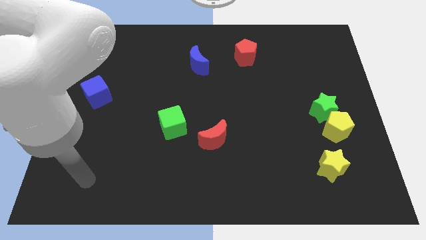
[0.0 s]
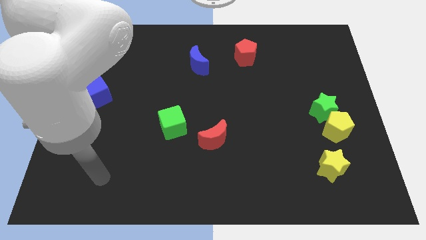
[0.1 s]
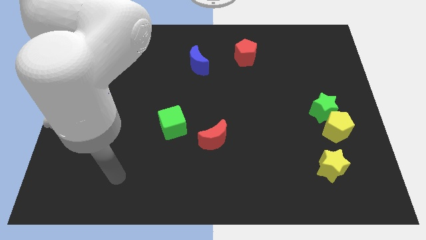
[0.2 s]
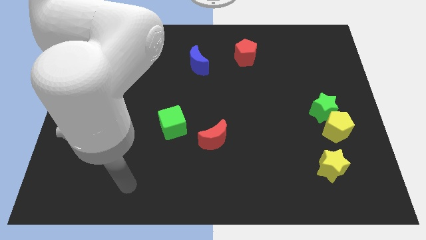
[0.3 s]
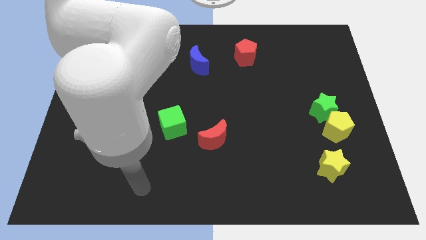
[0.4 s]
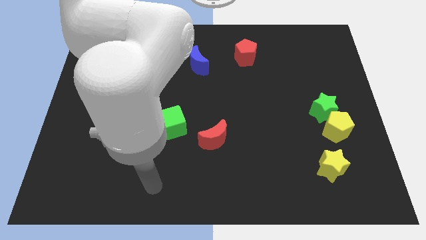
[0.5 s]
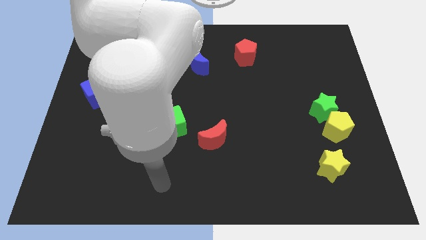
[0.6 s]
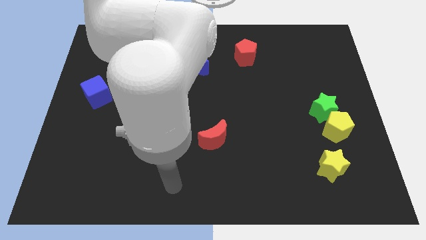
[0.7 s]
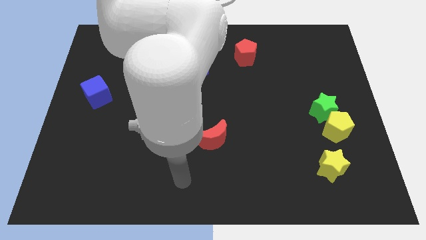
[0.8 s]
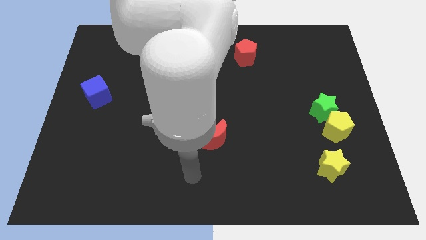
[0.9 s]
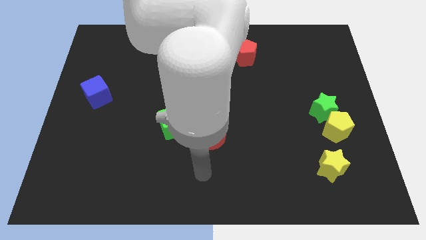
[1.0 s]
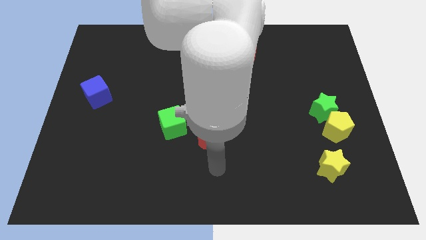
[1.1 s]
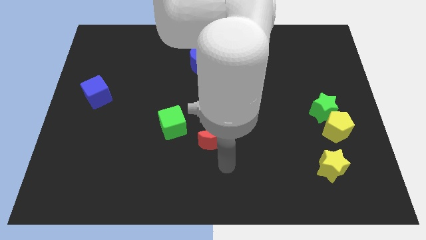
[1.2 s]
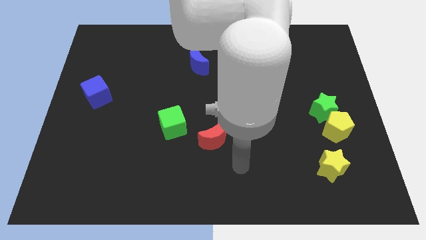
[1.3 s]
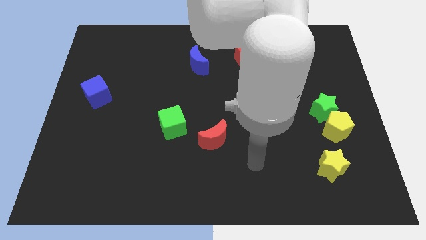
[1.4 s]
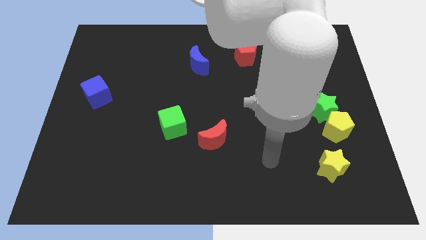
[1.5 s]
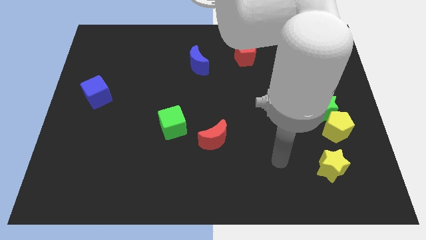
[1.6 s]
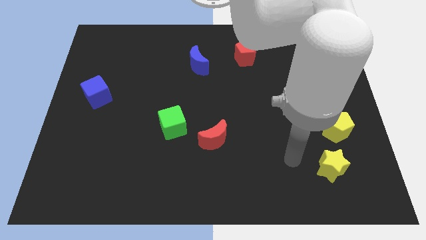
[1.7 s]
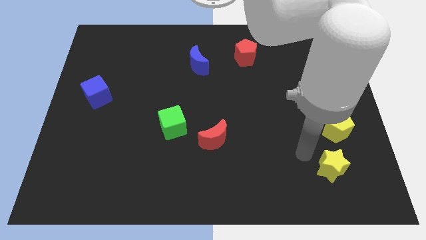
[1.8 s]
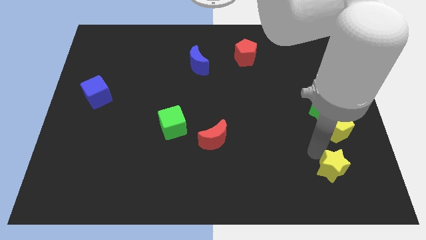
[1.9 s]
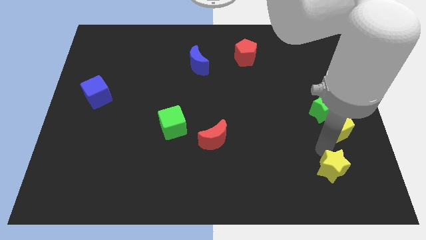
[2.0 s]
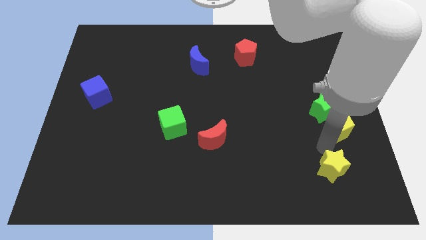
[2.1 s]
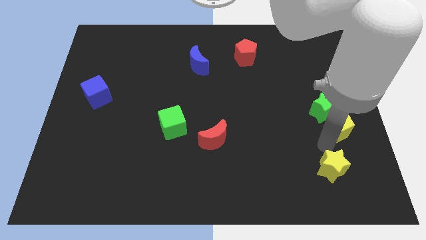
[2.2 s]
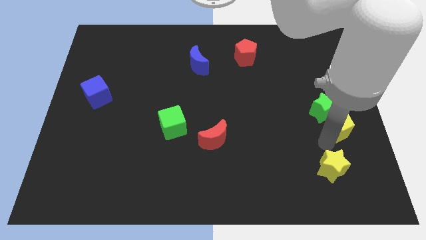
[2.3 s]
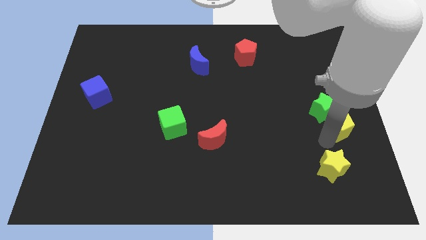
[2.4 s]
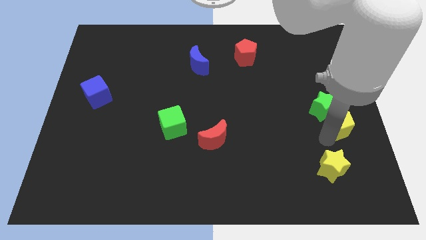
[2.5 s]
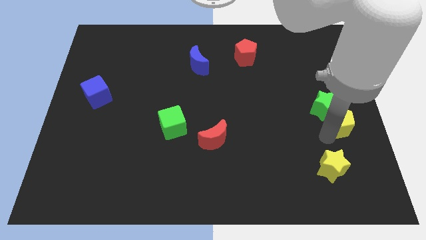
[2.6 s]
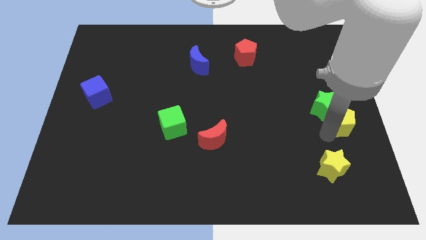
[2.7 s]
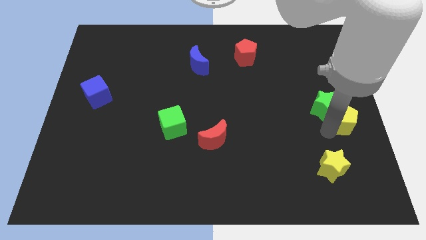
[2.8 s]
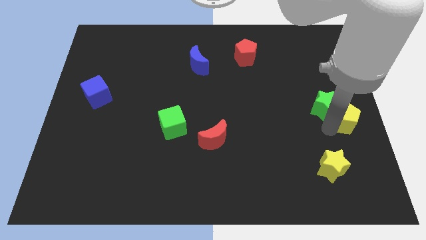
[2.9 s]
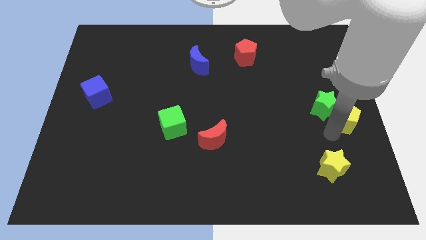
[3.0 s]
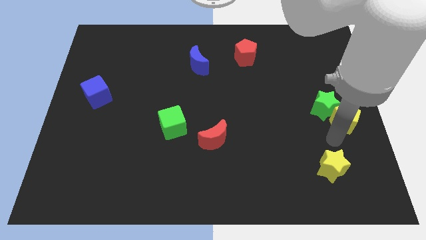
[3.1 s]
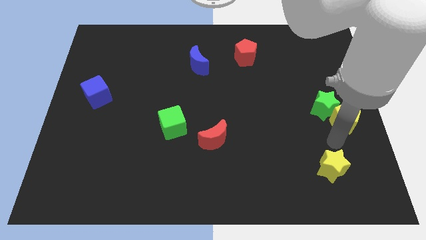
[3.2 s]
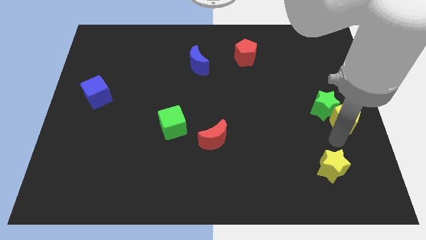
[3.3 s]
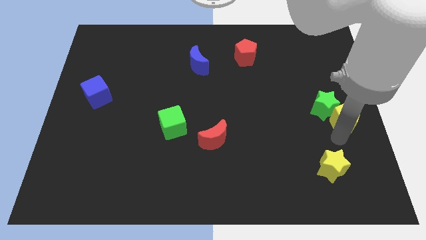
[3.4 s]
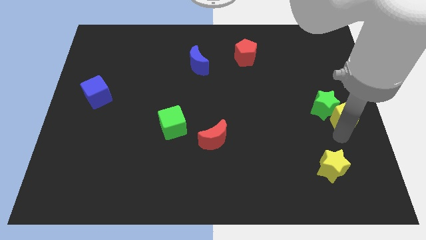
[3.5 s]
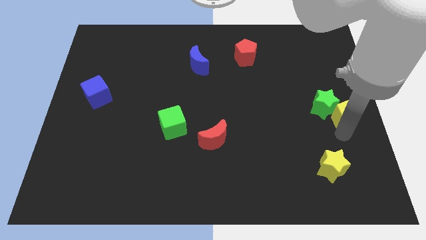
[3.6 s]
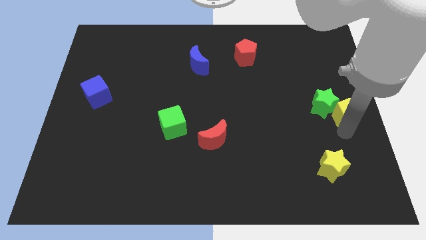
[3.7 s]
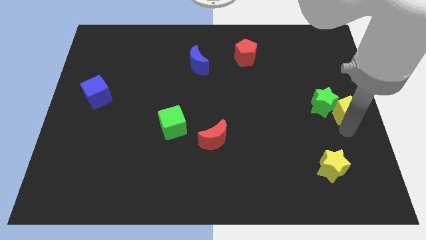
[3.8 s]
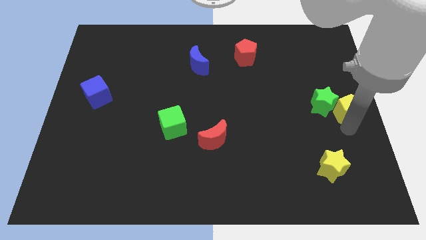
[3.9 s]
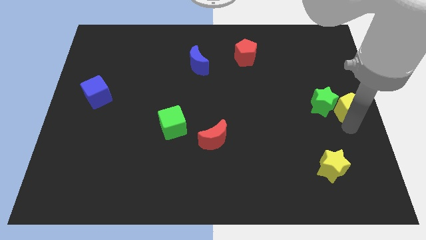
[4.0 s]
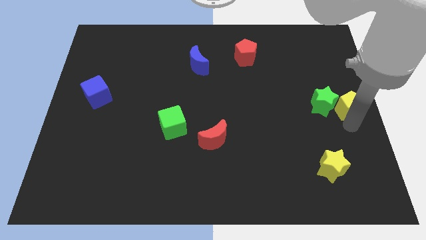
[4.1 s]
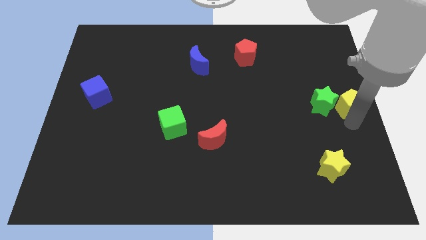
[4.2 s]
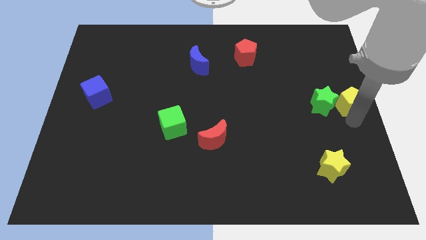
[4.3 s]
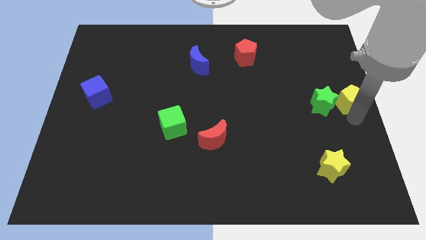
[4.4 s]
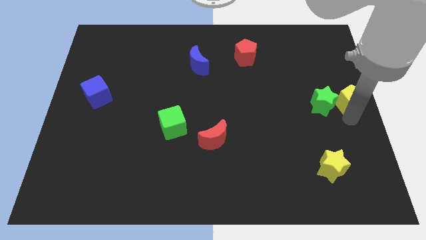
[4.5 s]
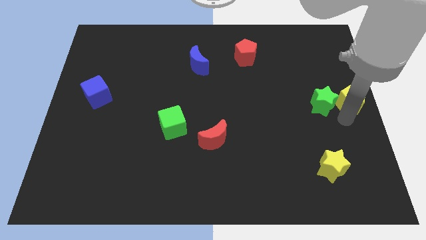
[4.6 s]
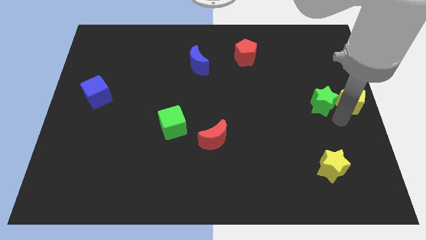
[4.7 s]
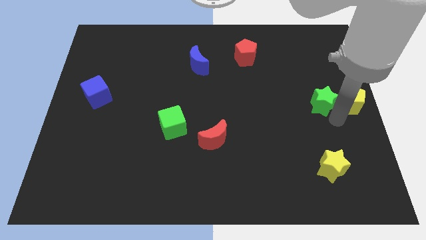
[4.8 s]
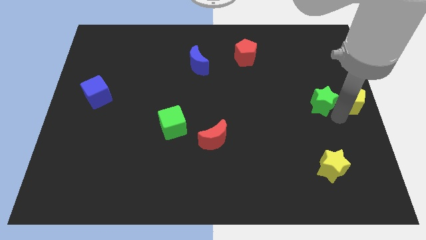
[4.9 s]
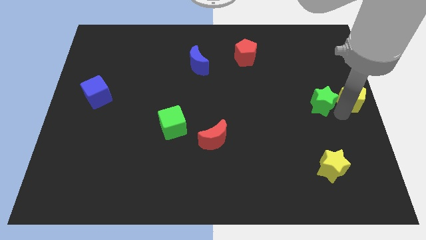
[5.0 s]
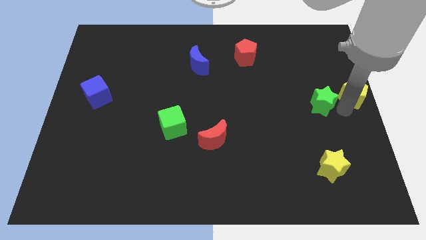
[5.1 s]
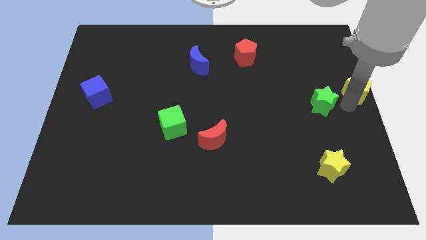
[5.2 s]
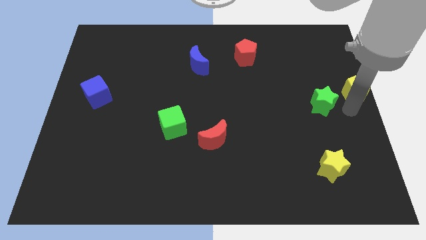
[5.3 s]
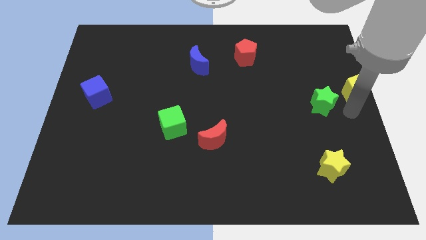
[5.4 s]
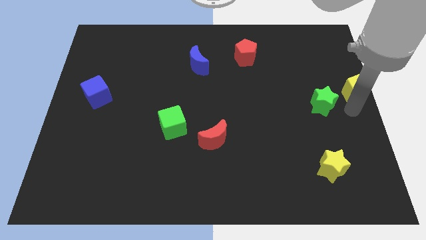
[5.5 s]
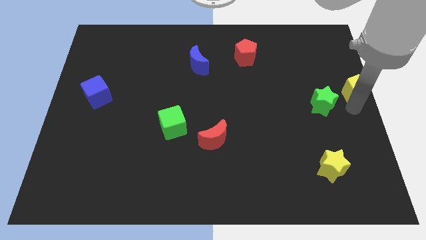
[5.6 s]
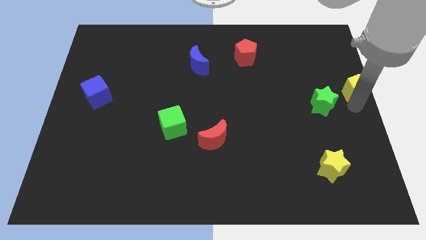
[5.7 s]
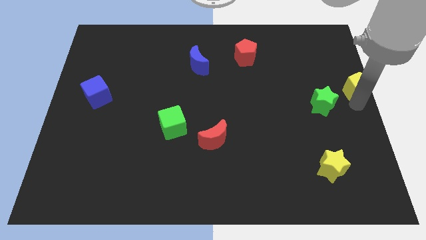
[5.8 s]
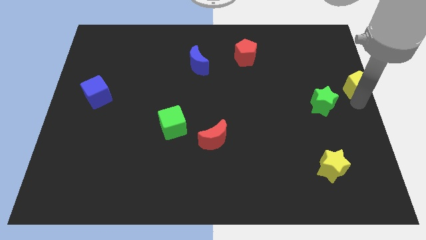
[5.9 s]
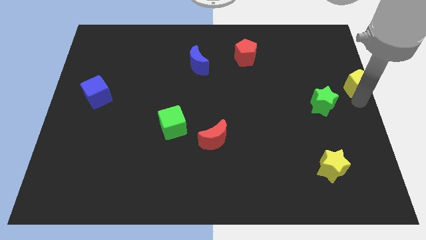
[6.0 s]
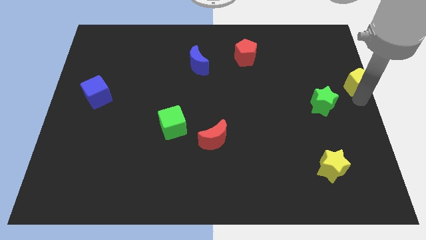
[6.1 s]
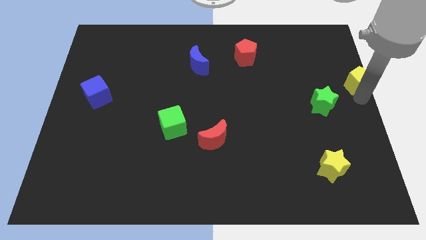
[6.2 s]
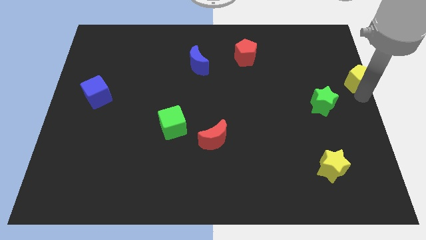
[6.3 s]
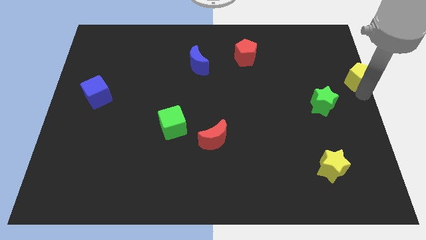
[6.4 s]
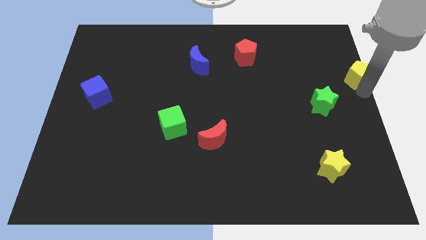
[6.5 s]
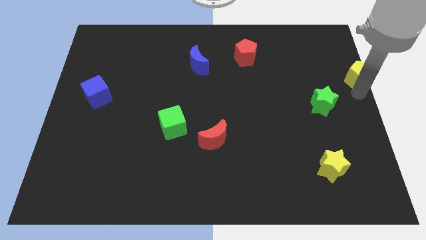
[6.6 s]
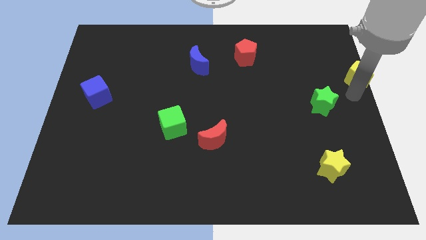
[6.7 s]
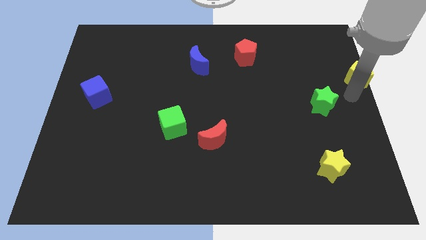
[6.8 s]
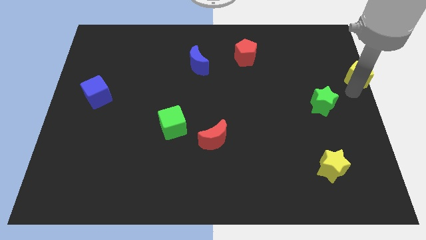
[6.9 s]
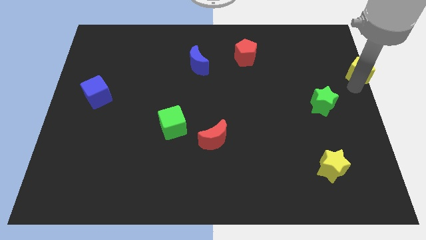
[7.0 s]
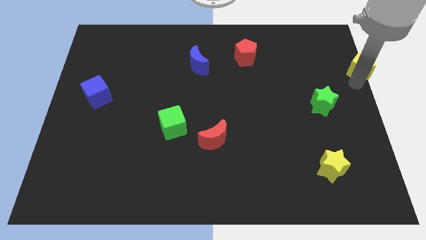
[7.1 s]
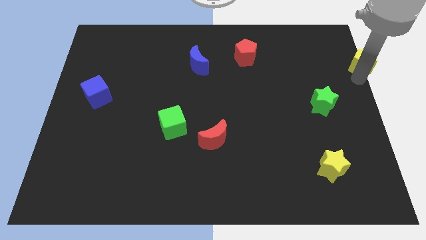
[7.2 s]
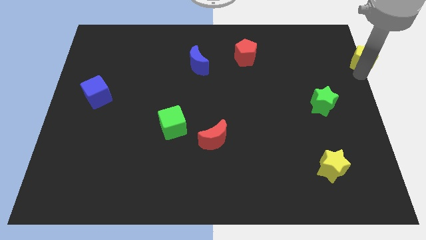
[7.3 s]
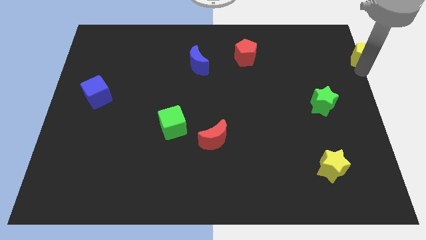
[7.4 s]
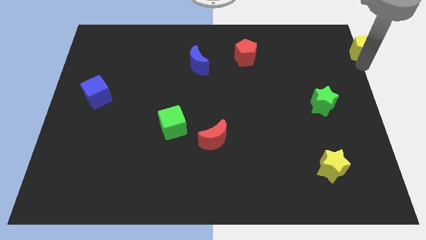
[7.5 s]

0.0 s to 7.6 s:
move the yellow pentagon to the upper right corner
